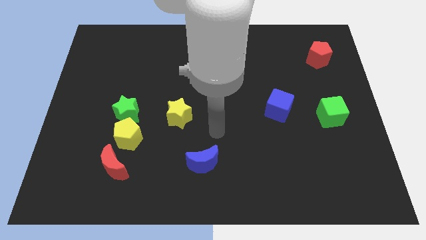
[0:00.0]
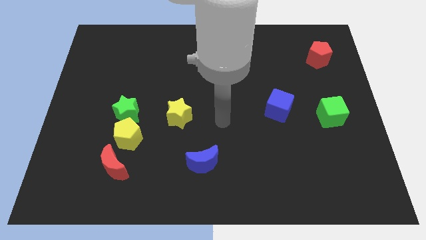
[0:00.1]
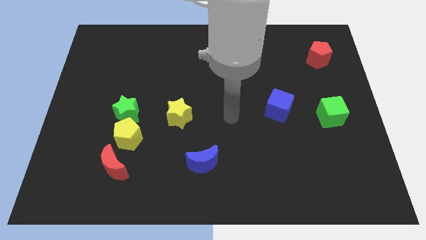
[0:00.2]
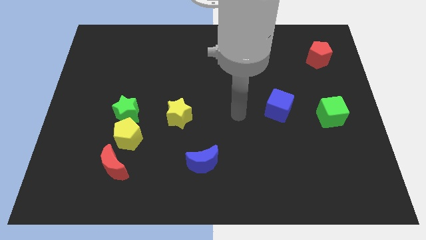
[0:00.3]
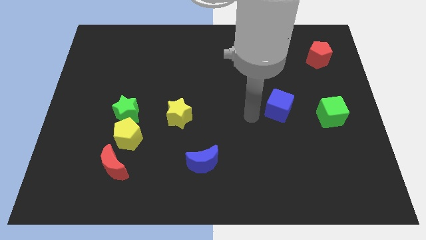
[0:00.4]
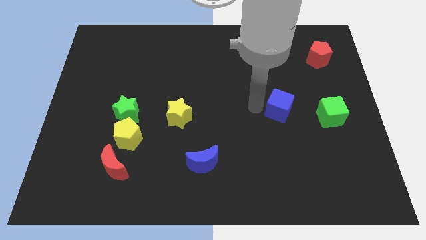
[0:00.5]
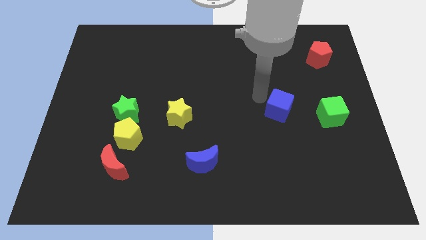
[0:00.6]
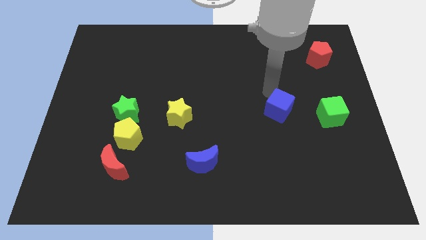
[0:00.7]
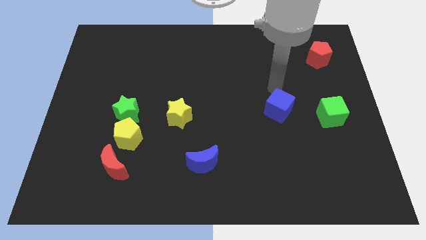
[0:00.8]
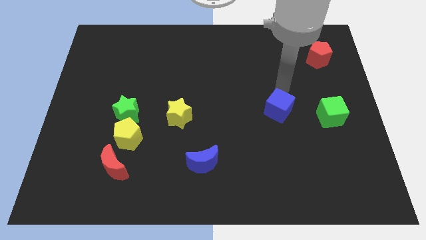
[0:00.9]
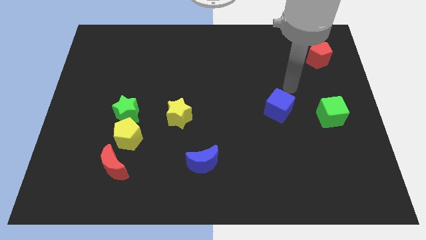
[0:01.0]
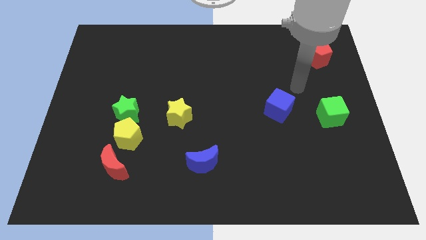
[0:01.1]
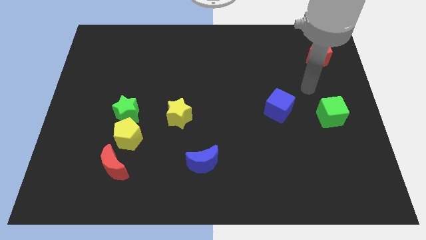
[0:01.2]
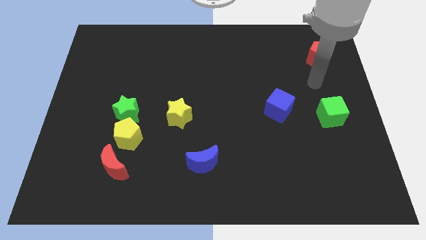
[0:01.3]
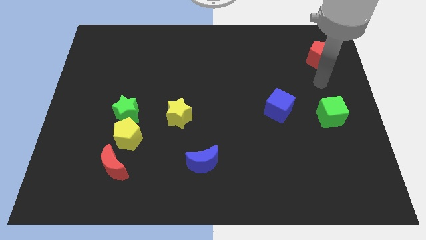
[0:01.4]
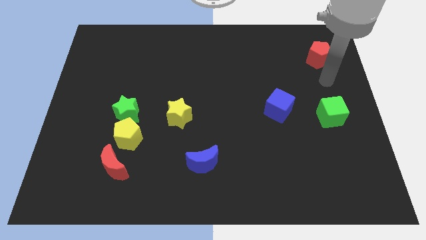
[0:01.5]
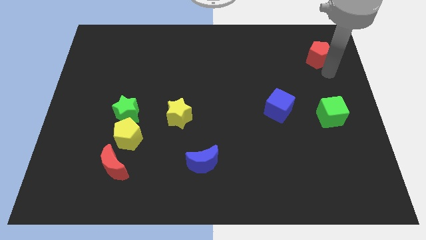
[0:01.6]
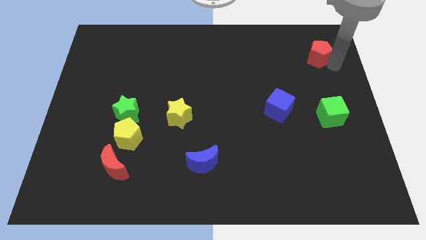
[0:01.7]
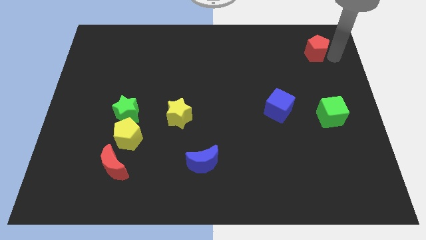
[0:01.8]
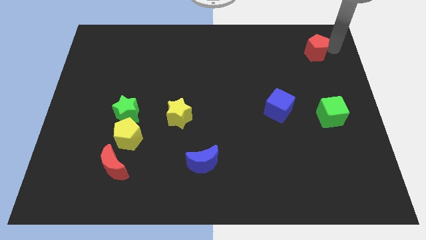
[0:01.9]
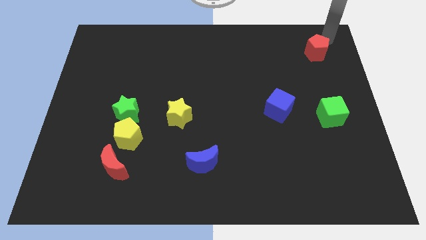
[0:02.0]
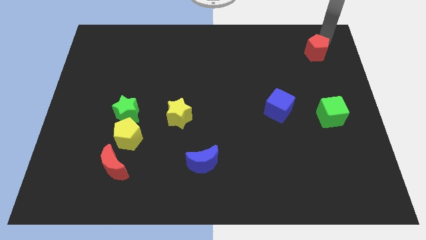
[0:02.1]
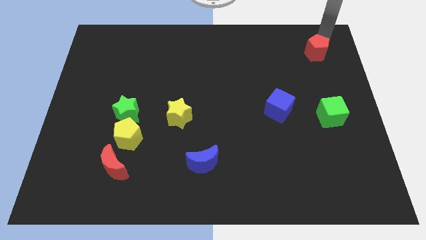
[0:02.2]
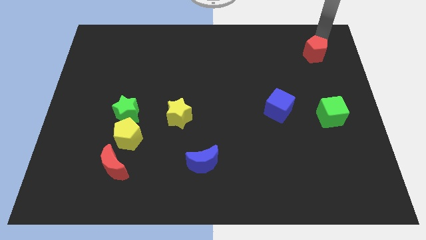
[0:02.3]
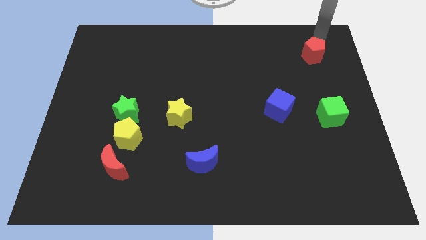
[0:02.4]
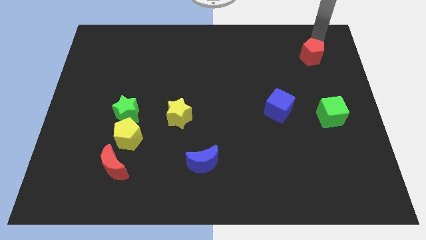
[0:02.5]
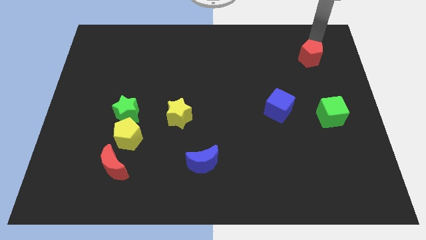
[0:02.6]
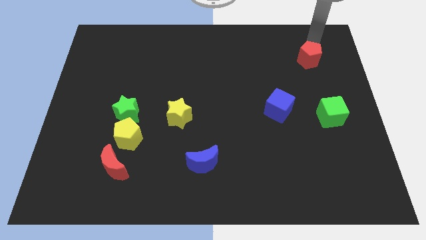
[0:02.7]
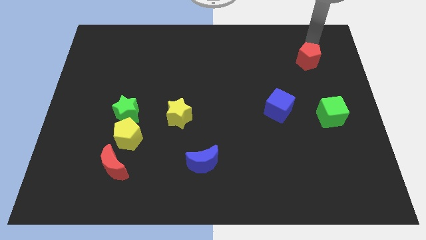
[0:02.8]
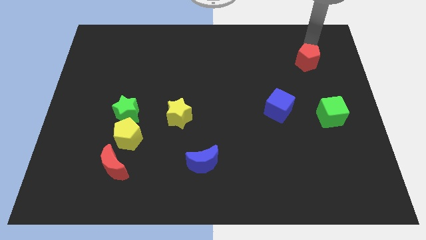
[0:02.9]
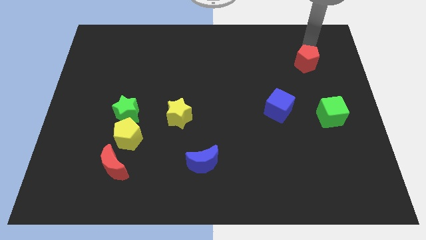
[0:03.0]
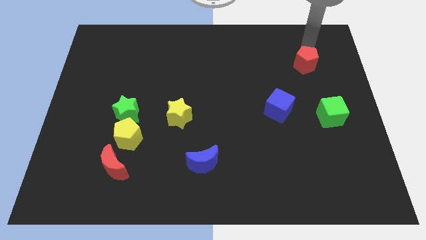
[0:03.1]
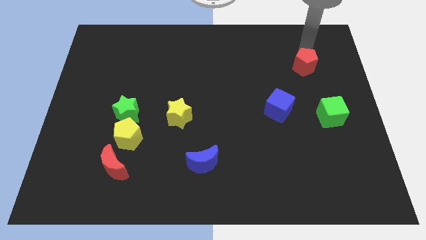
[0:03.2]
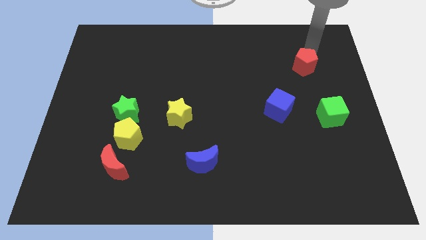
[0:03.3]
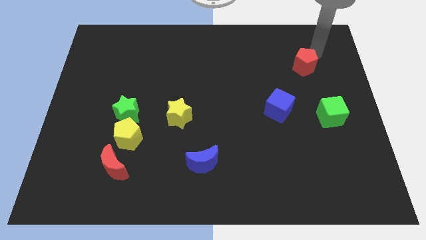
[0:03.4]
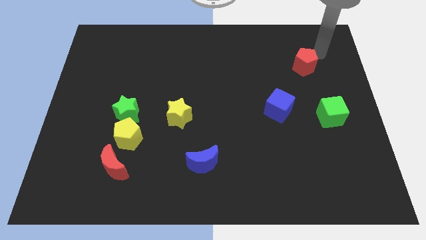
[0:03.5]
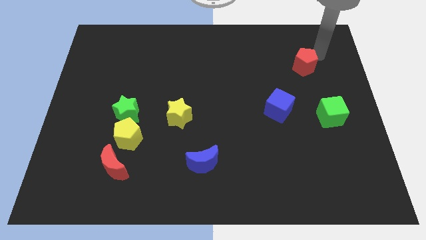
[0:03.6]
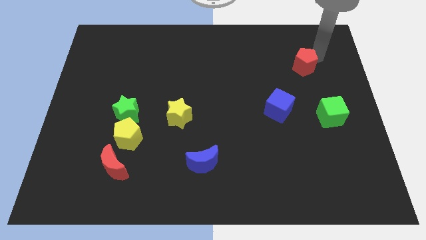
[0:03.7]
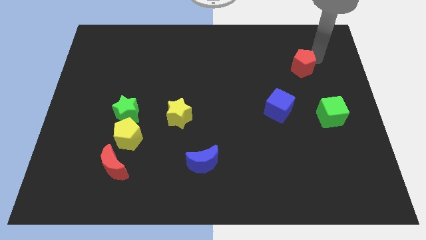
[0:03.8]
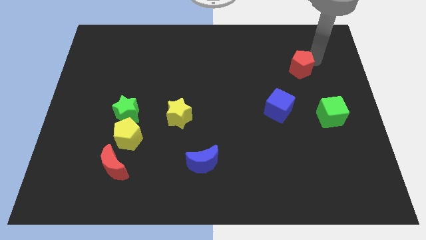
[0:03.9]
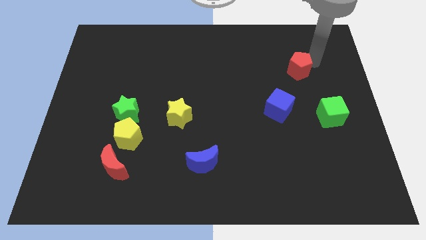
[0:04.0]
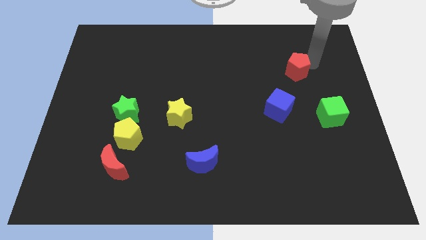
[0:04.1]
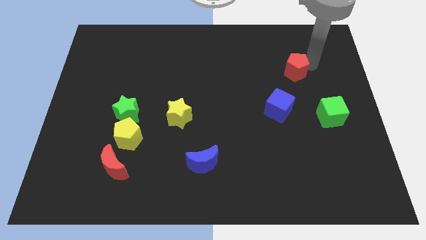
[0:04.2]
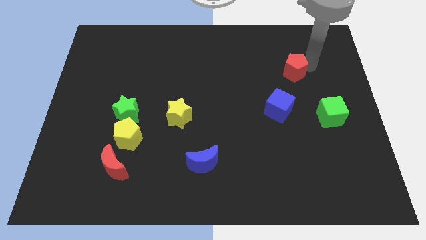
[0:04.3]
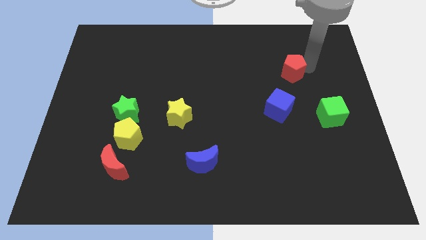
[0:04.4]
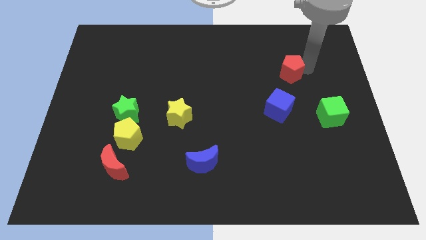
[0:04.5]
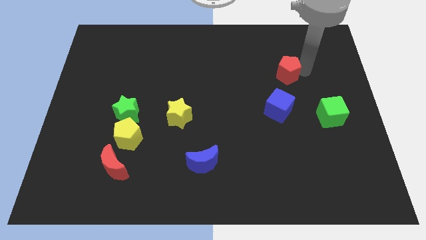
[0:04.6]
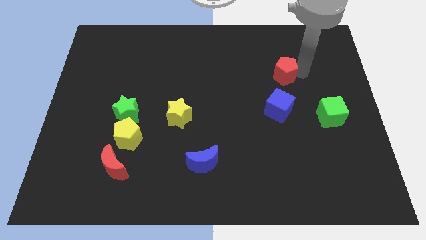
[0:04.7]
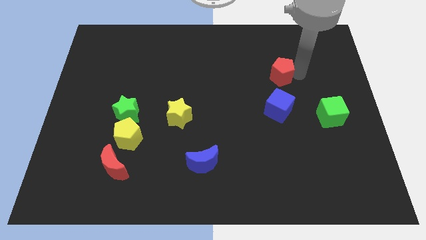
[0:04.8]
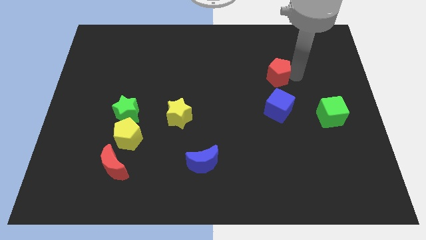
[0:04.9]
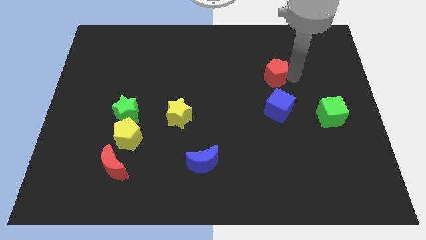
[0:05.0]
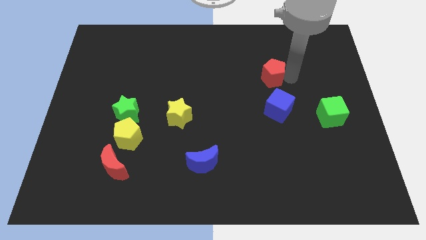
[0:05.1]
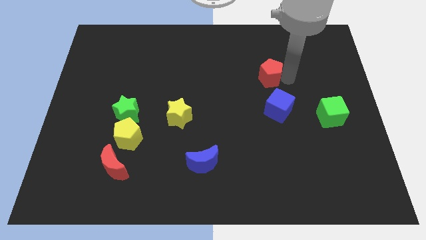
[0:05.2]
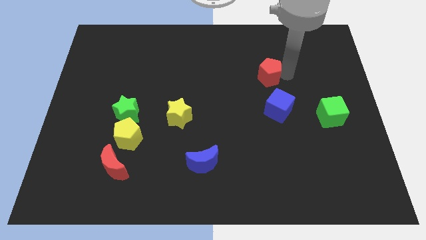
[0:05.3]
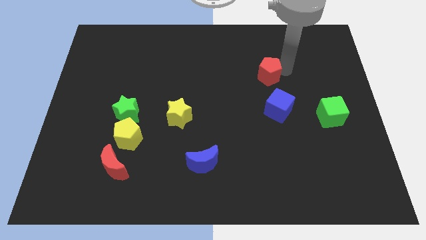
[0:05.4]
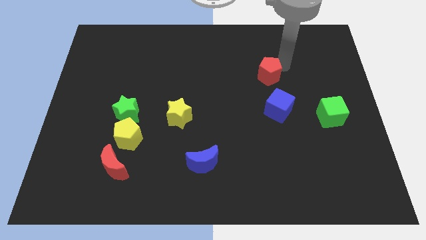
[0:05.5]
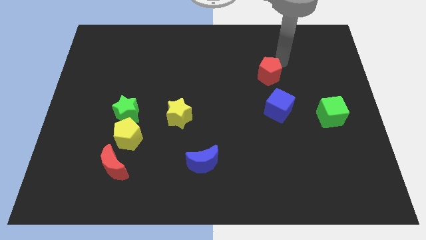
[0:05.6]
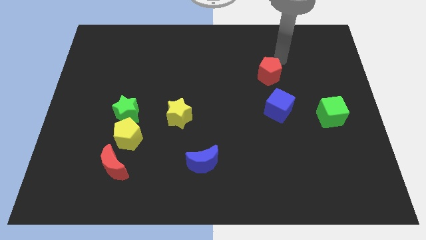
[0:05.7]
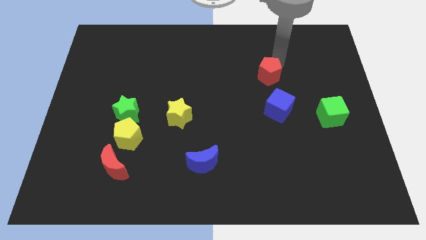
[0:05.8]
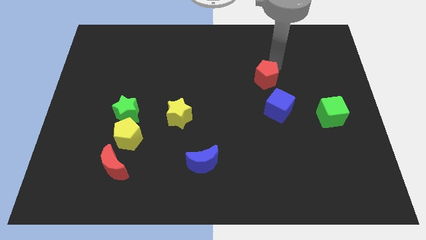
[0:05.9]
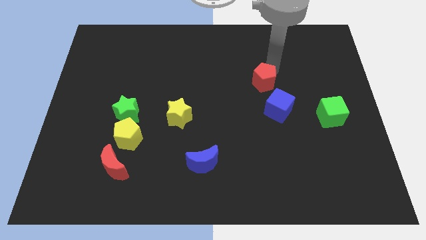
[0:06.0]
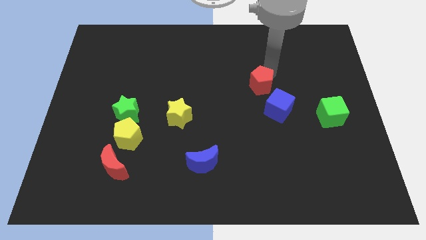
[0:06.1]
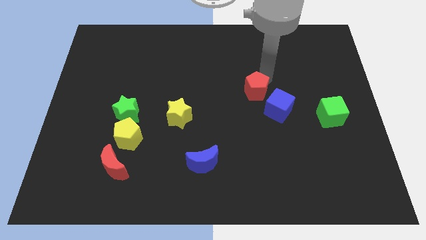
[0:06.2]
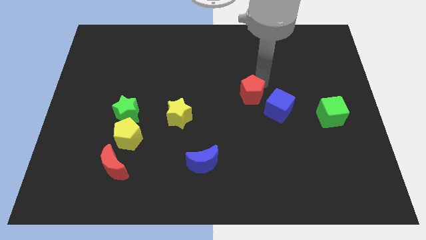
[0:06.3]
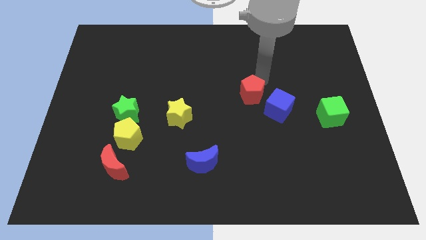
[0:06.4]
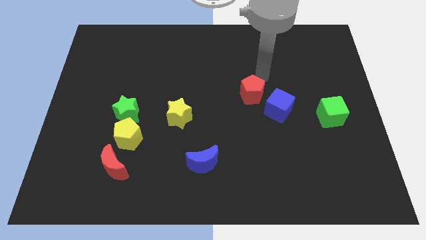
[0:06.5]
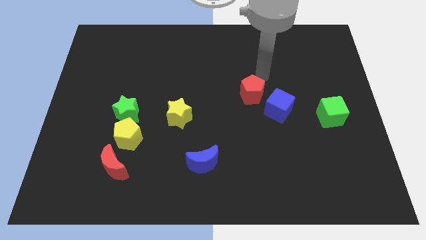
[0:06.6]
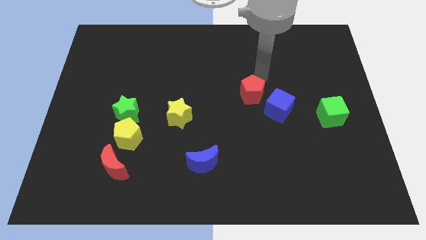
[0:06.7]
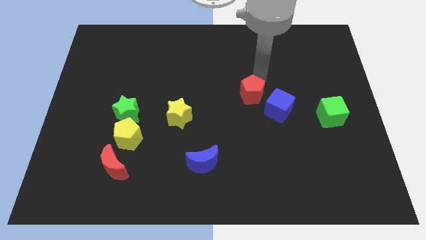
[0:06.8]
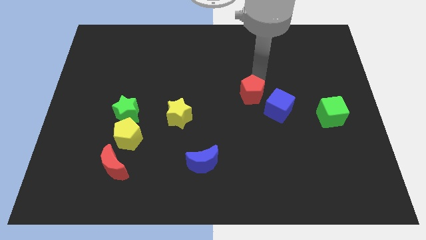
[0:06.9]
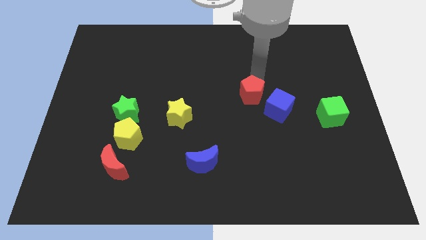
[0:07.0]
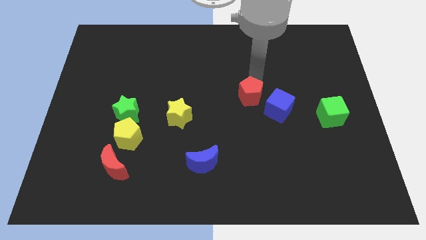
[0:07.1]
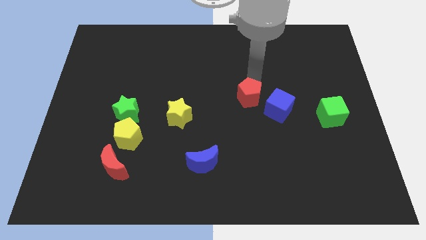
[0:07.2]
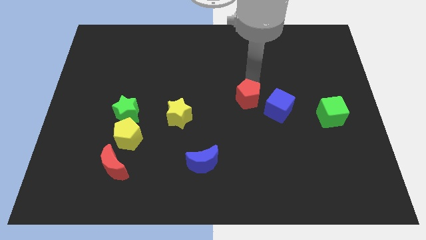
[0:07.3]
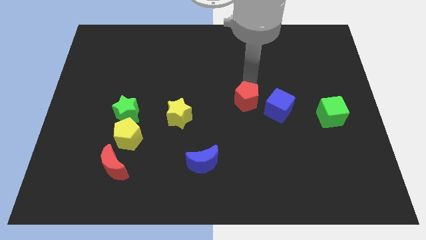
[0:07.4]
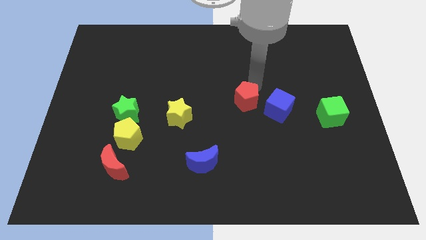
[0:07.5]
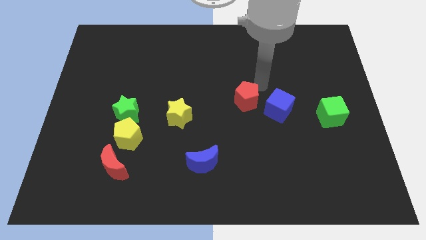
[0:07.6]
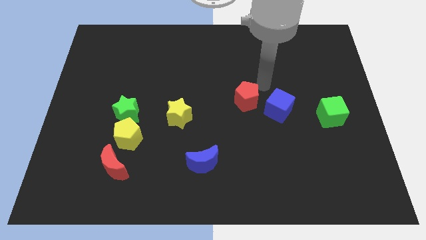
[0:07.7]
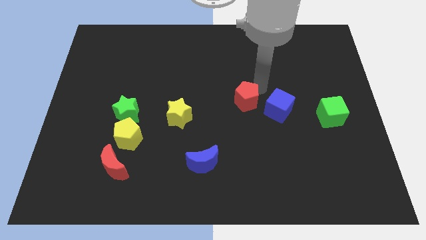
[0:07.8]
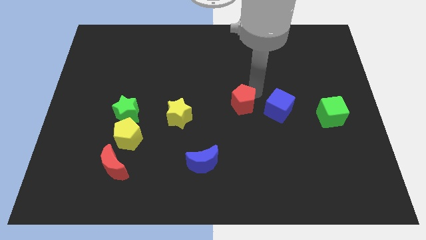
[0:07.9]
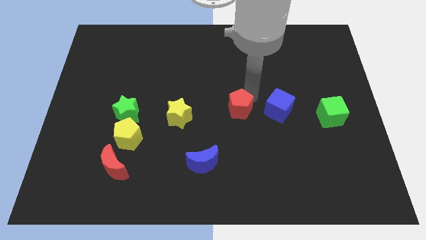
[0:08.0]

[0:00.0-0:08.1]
push the red pentagon right of the yellow star

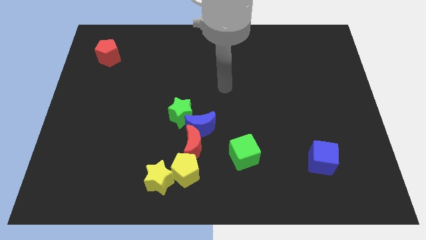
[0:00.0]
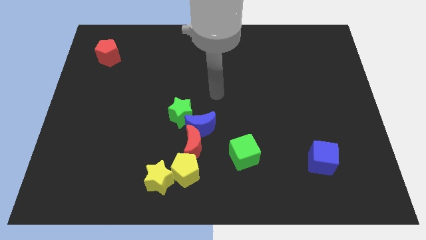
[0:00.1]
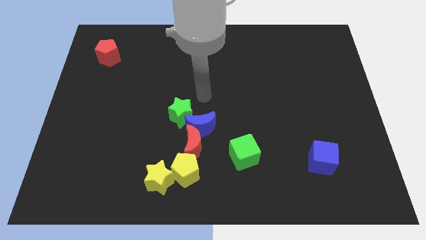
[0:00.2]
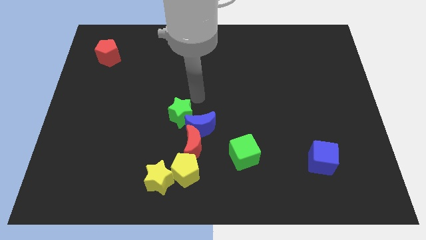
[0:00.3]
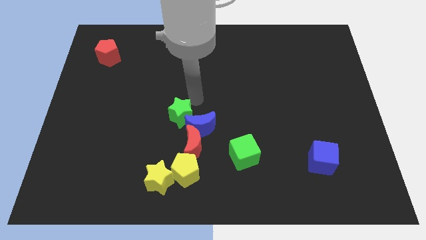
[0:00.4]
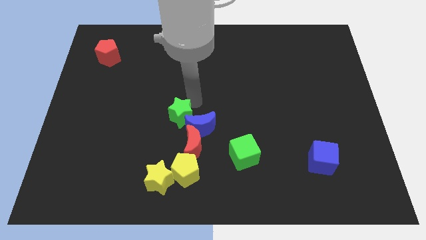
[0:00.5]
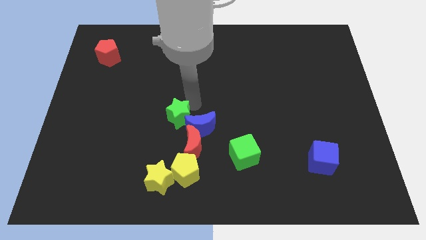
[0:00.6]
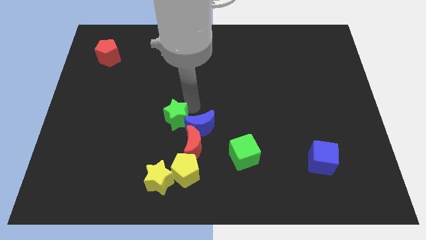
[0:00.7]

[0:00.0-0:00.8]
slide the green star to the top side of the yellow star
